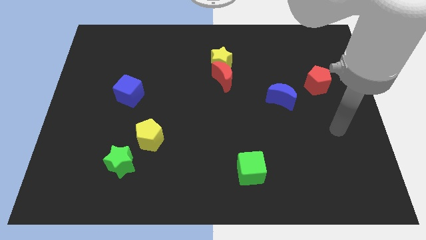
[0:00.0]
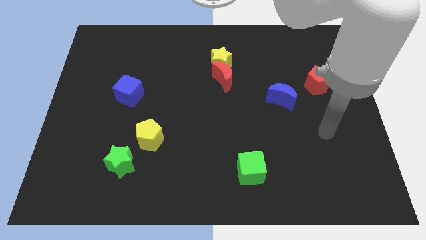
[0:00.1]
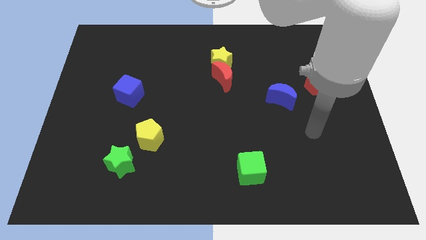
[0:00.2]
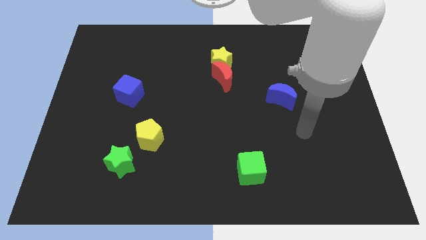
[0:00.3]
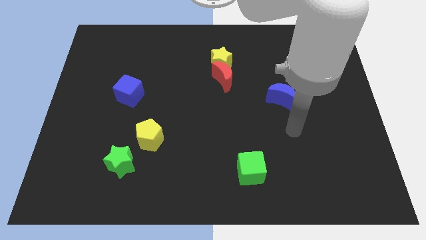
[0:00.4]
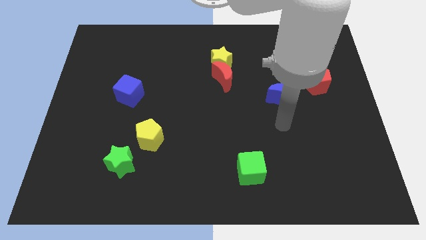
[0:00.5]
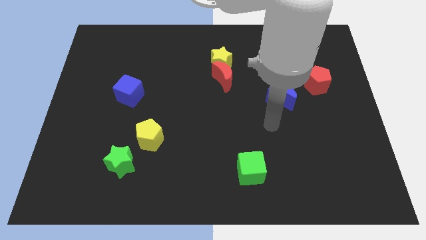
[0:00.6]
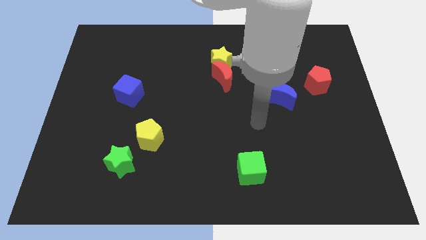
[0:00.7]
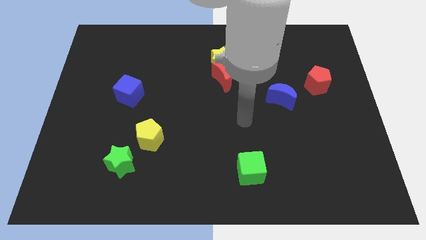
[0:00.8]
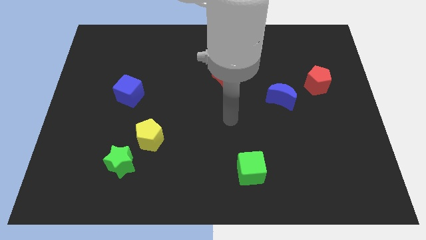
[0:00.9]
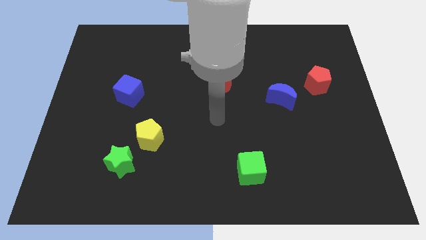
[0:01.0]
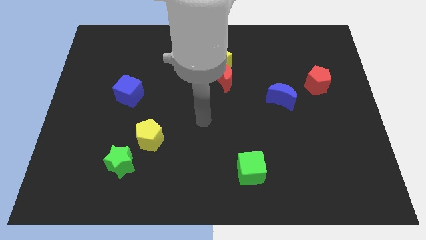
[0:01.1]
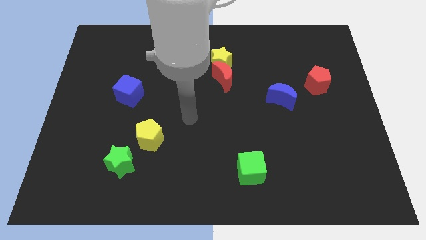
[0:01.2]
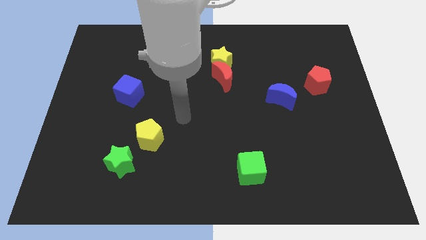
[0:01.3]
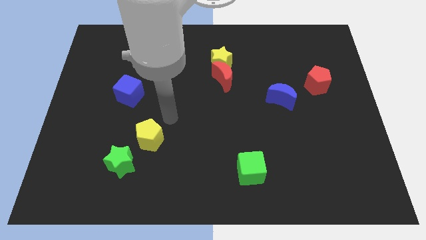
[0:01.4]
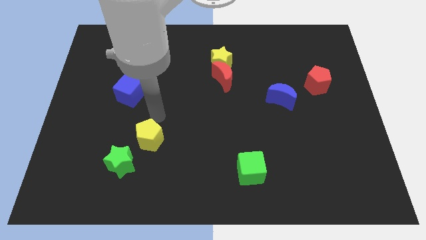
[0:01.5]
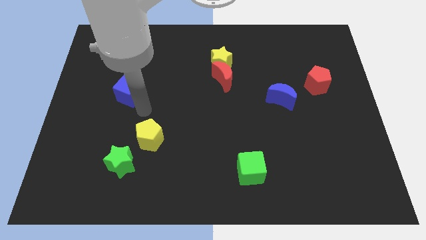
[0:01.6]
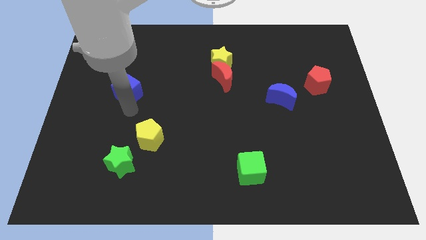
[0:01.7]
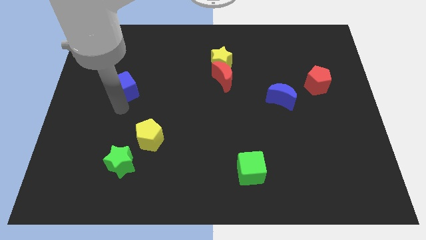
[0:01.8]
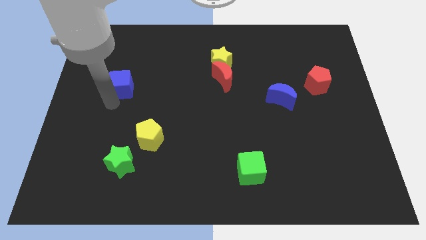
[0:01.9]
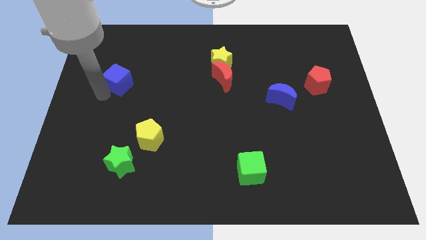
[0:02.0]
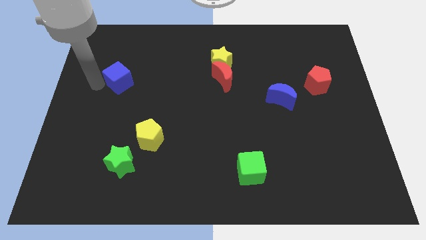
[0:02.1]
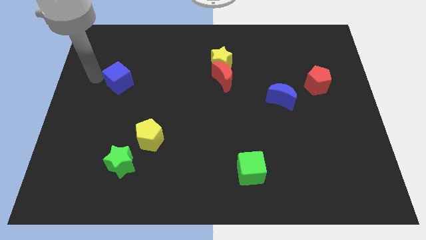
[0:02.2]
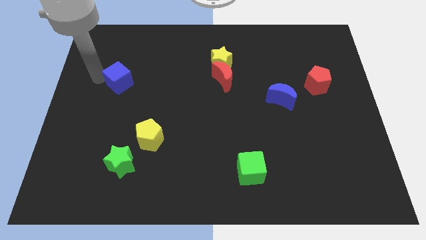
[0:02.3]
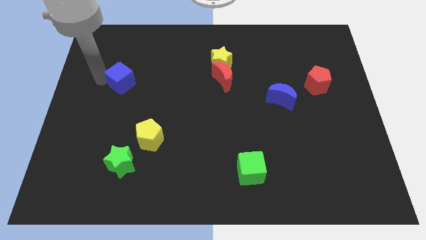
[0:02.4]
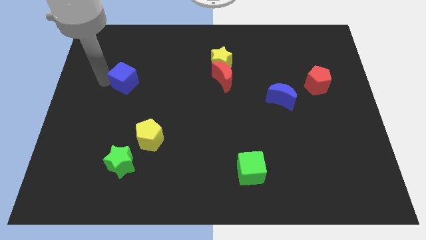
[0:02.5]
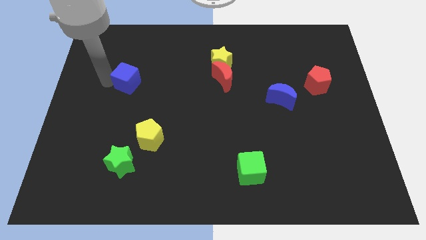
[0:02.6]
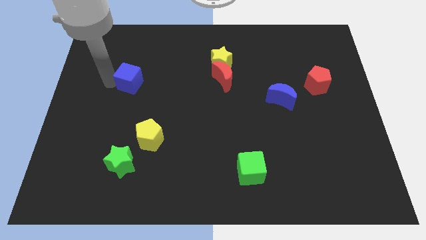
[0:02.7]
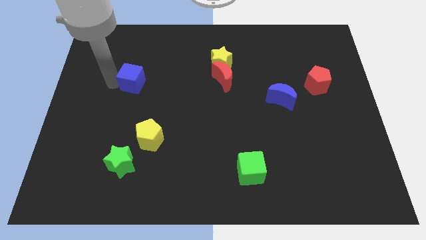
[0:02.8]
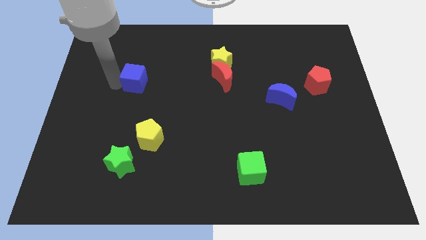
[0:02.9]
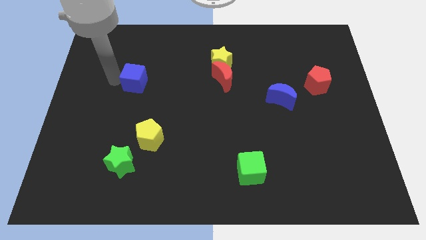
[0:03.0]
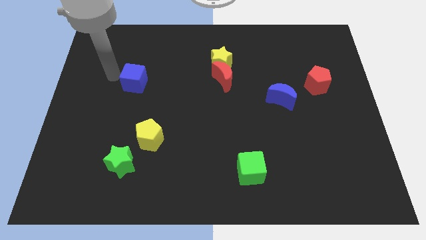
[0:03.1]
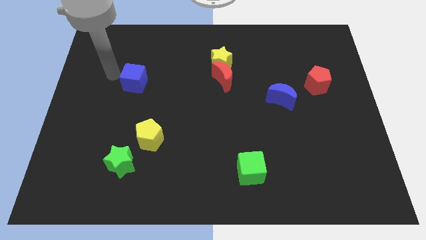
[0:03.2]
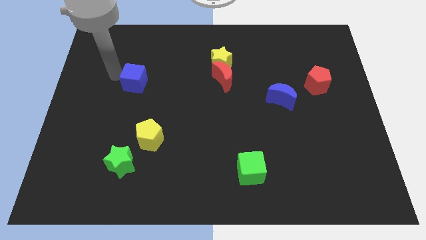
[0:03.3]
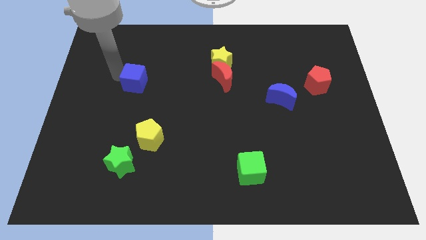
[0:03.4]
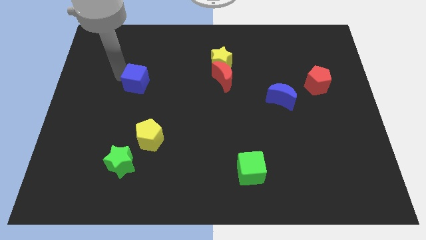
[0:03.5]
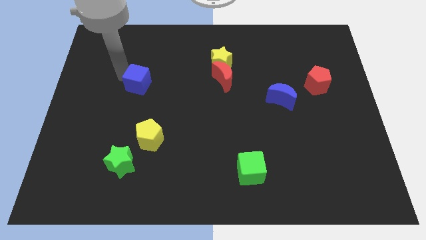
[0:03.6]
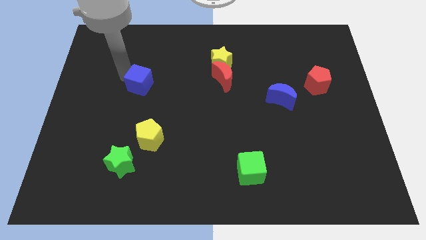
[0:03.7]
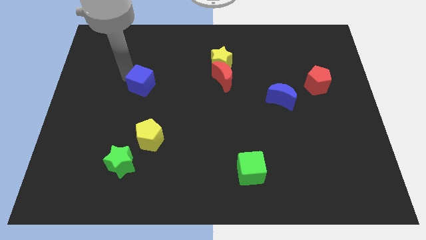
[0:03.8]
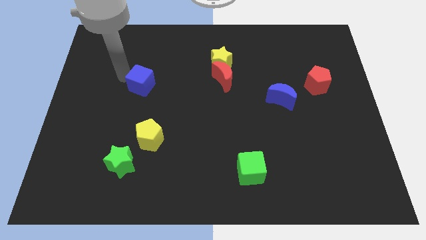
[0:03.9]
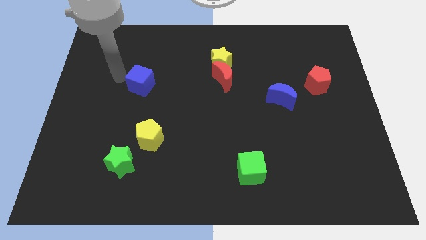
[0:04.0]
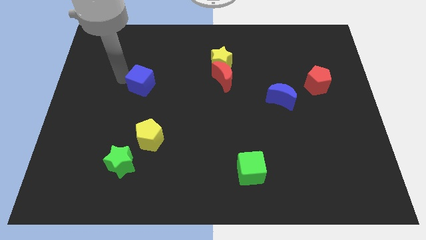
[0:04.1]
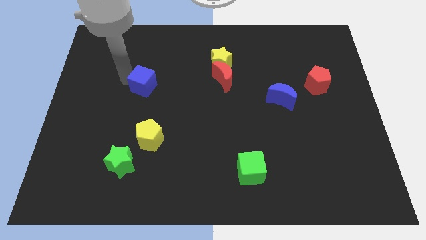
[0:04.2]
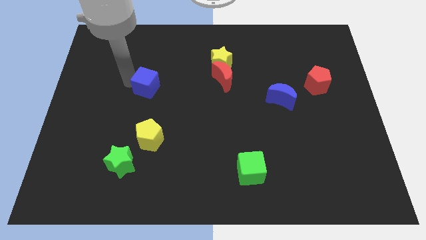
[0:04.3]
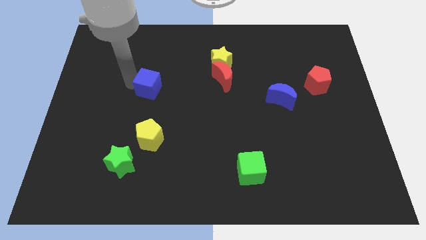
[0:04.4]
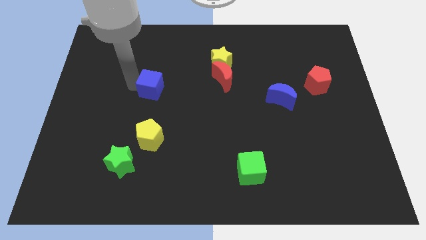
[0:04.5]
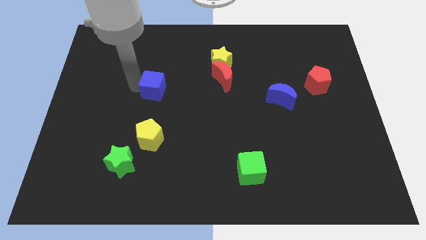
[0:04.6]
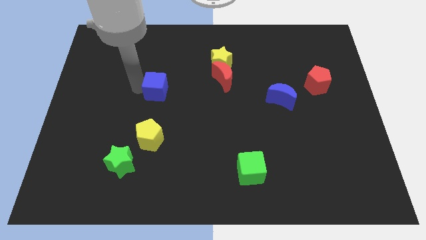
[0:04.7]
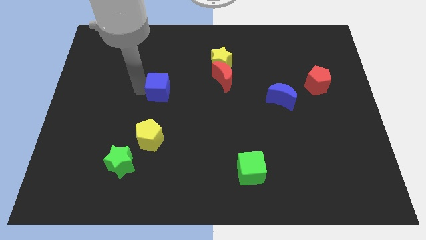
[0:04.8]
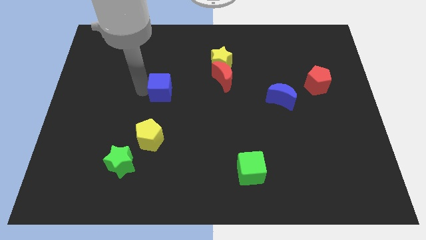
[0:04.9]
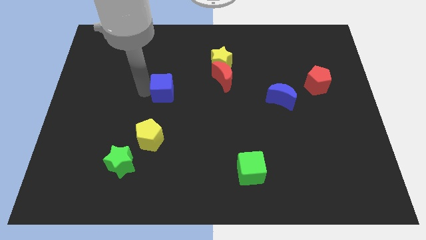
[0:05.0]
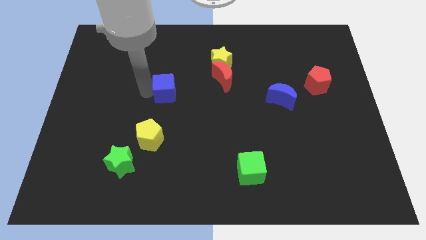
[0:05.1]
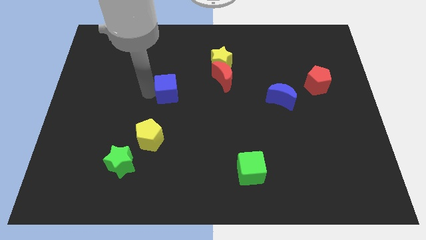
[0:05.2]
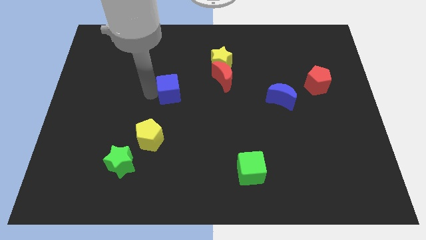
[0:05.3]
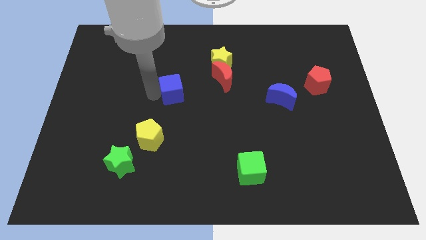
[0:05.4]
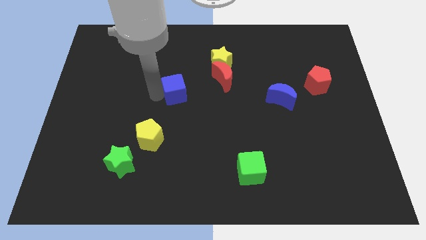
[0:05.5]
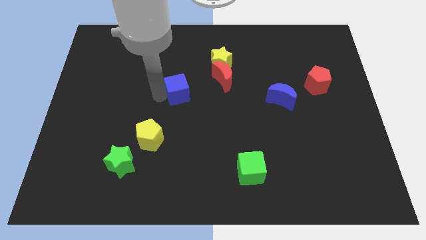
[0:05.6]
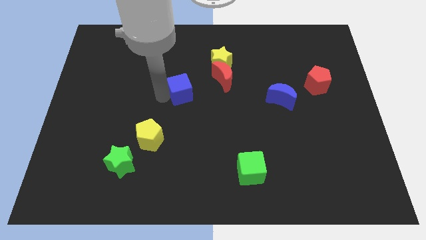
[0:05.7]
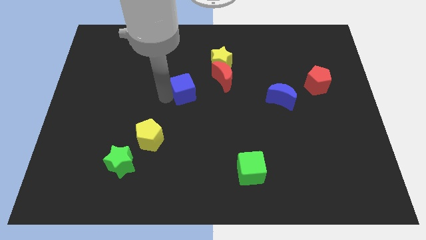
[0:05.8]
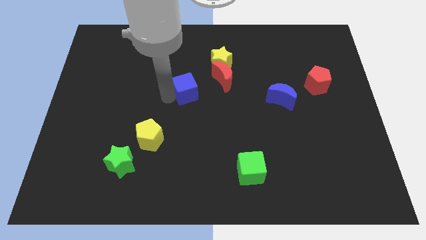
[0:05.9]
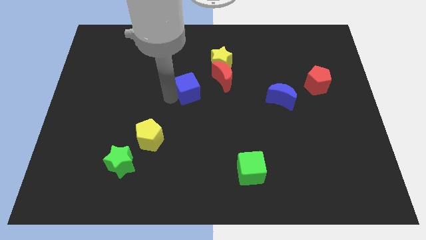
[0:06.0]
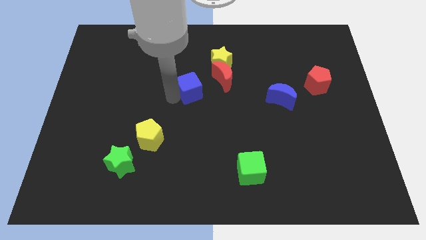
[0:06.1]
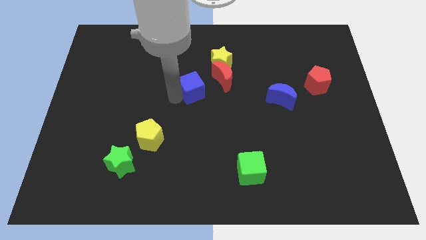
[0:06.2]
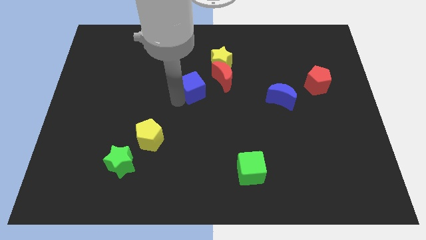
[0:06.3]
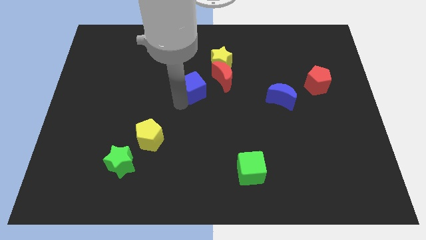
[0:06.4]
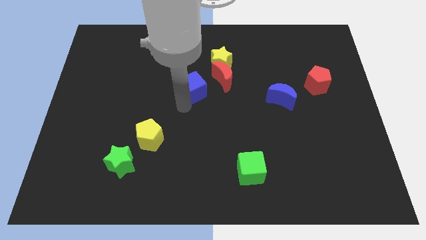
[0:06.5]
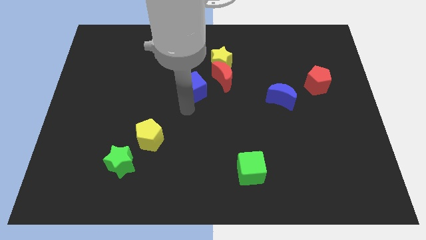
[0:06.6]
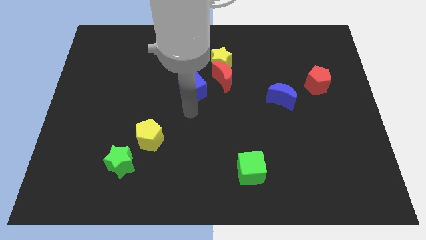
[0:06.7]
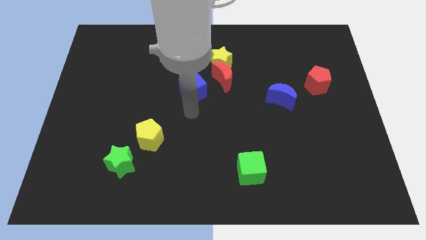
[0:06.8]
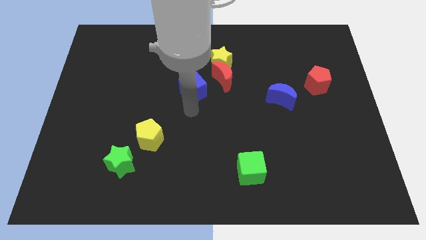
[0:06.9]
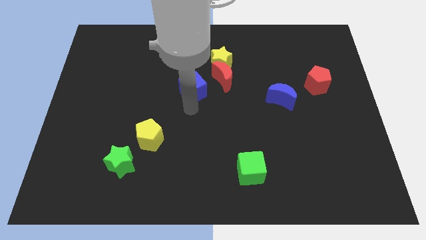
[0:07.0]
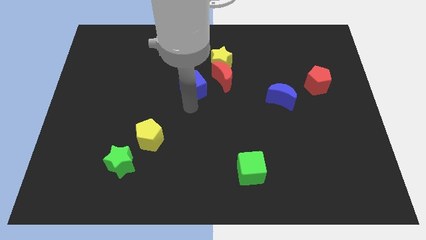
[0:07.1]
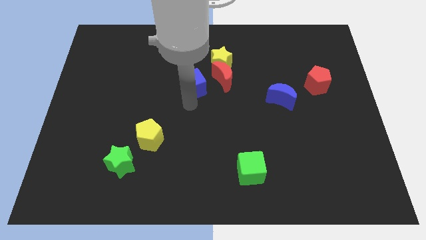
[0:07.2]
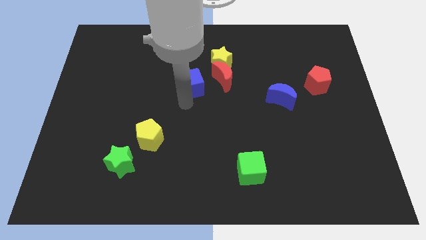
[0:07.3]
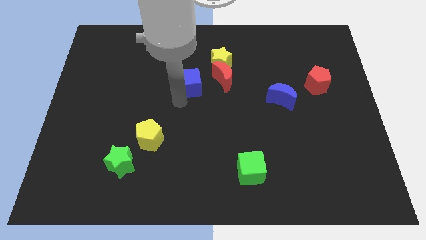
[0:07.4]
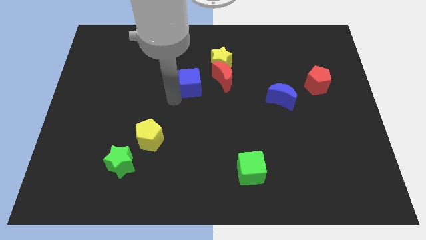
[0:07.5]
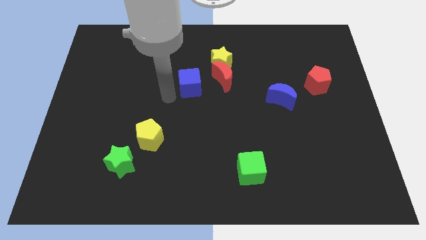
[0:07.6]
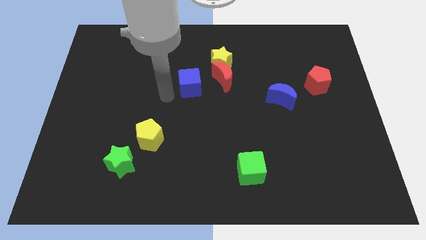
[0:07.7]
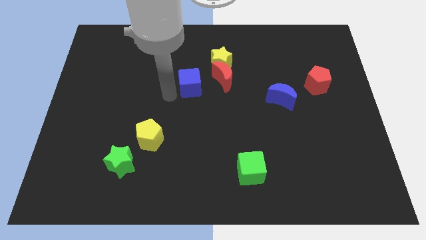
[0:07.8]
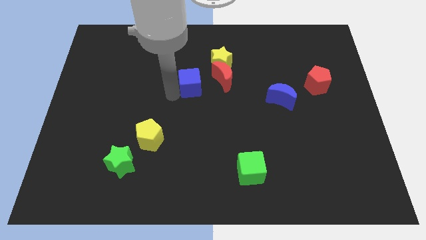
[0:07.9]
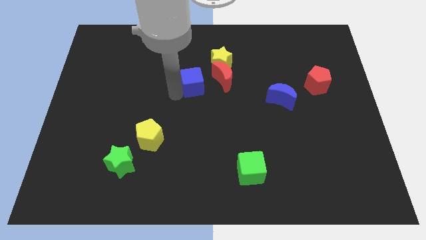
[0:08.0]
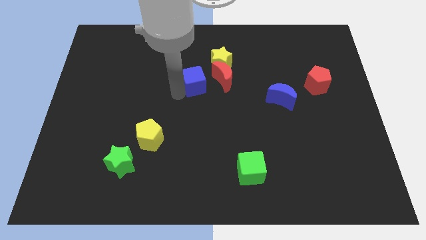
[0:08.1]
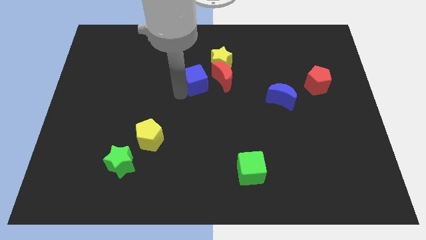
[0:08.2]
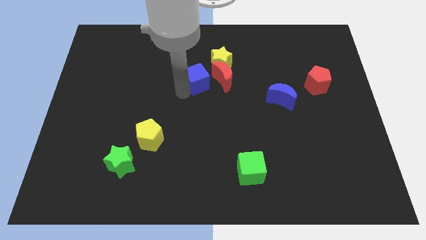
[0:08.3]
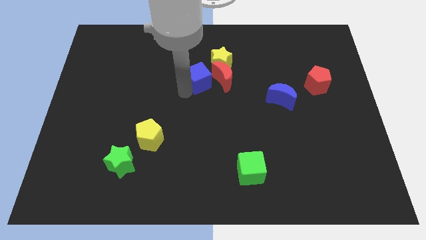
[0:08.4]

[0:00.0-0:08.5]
put the blue cube next to the red moon
